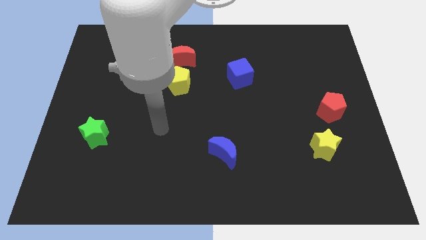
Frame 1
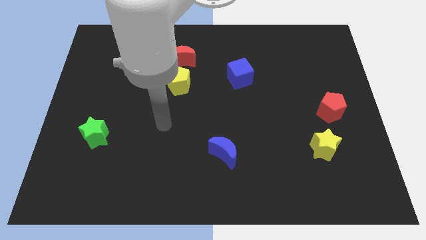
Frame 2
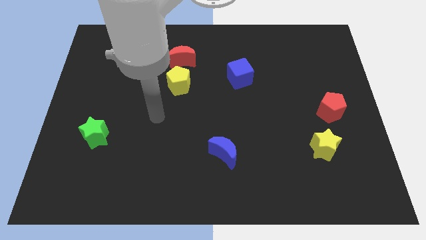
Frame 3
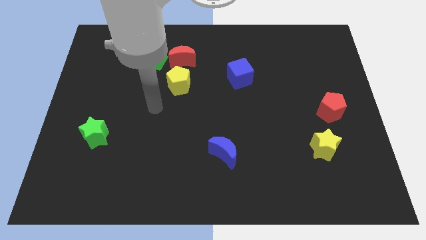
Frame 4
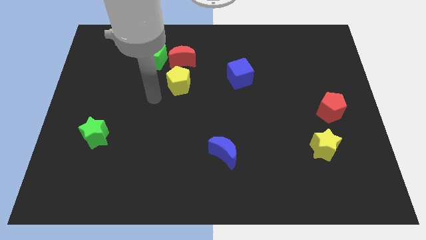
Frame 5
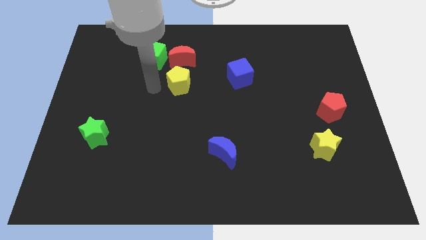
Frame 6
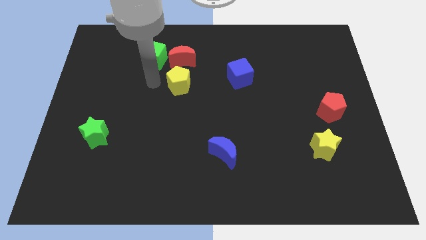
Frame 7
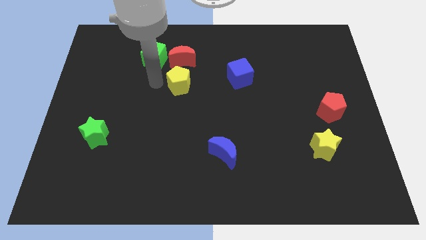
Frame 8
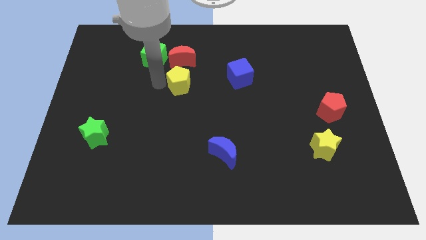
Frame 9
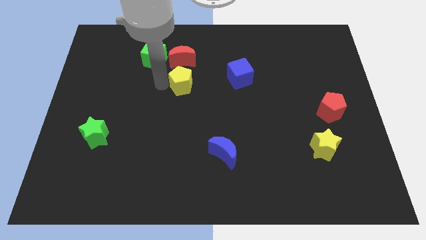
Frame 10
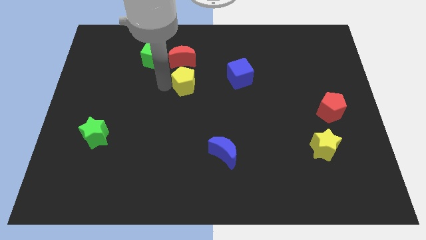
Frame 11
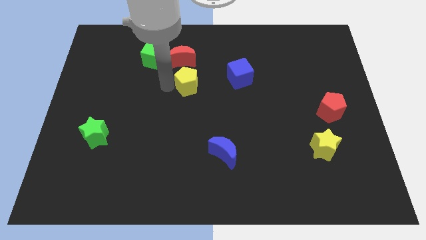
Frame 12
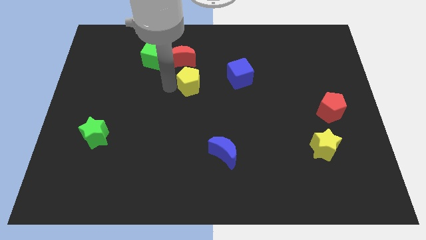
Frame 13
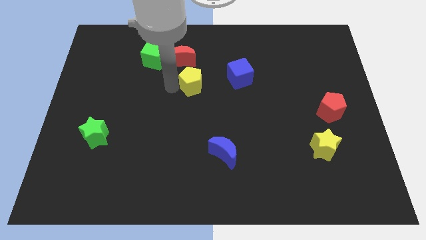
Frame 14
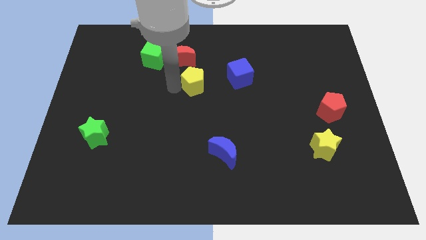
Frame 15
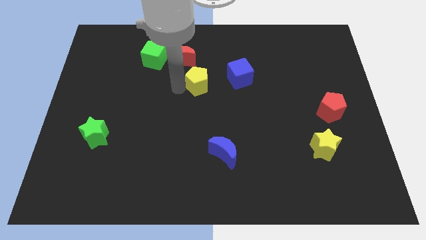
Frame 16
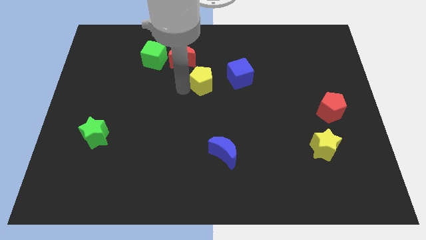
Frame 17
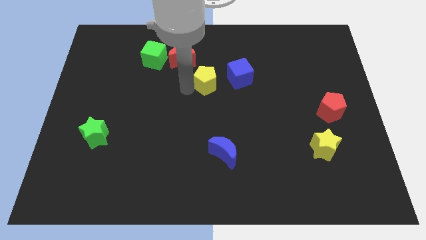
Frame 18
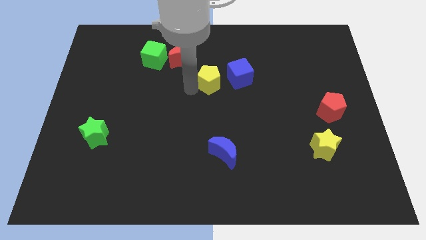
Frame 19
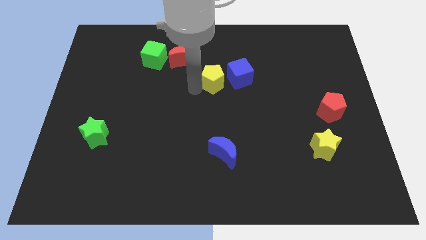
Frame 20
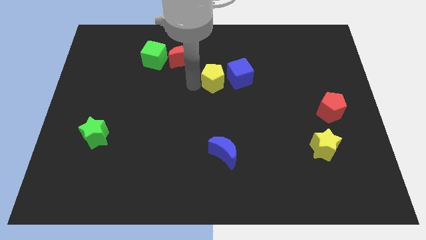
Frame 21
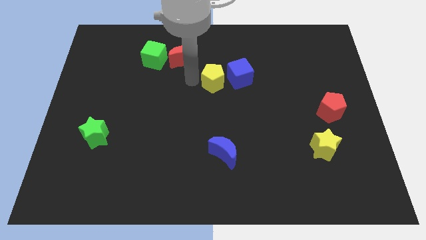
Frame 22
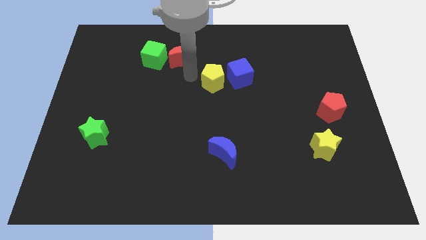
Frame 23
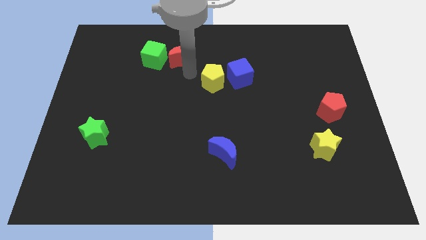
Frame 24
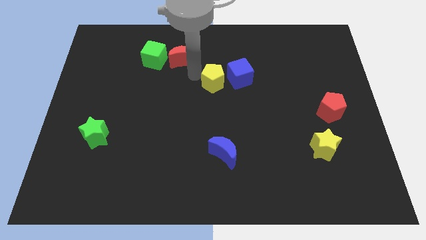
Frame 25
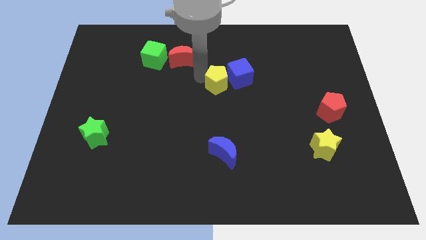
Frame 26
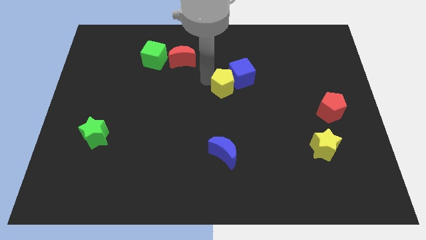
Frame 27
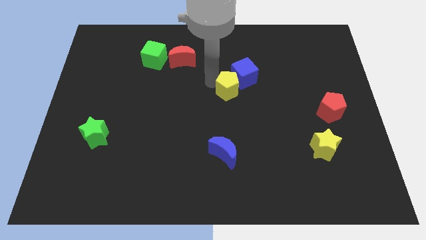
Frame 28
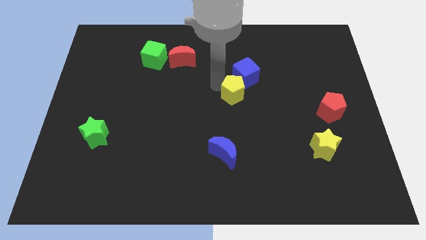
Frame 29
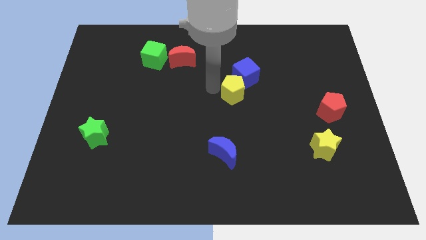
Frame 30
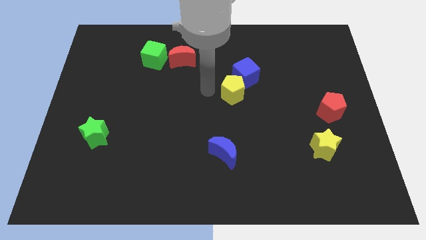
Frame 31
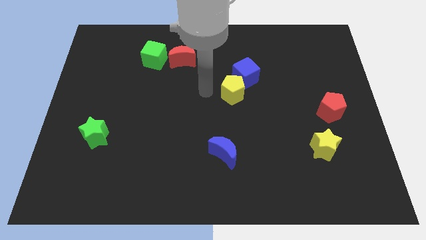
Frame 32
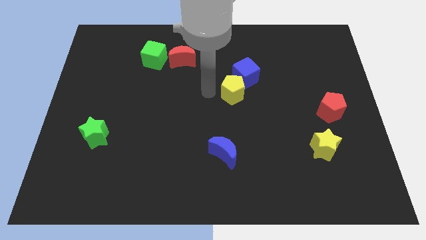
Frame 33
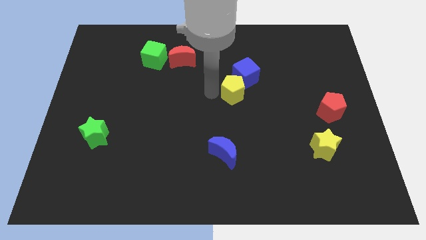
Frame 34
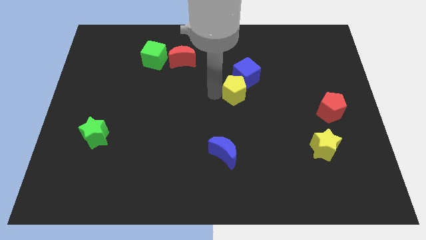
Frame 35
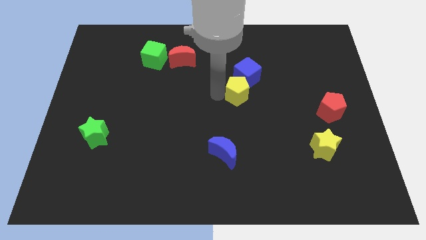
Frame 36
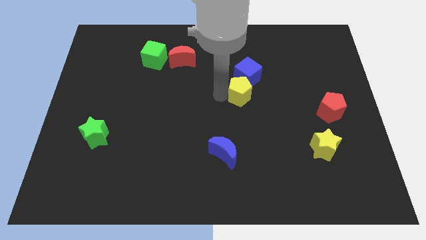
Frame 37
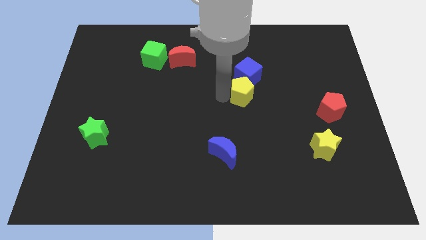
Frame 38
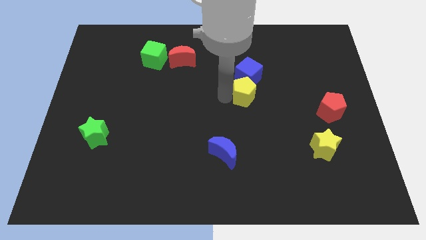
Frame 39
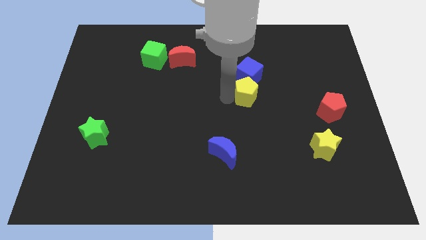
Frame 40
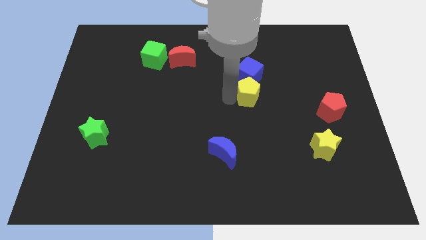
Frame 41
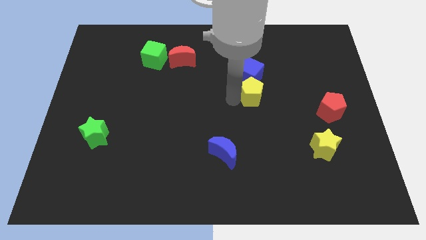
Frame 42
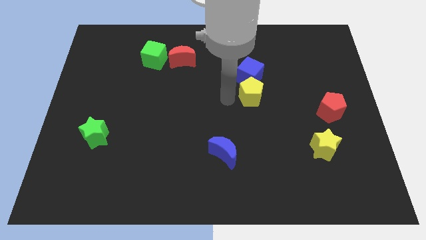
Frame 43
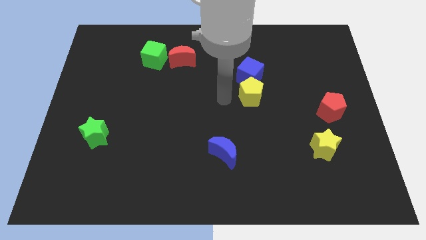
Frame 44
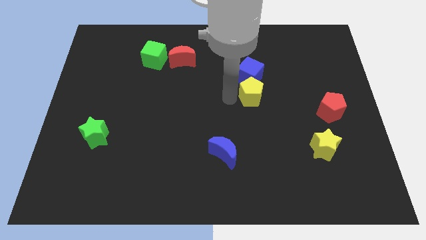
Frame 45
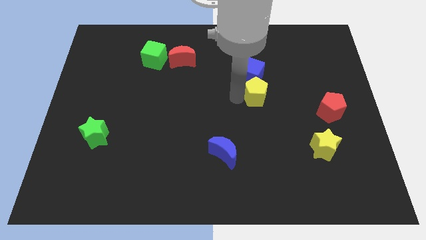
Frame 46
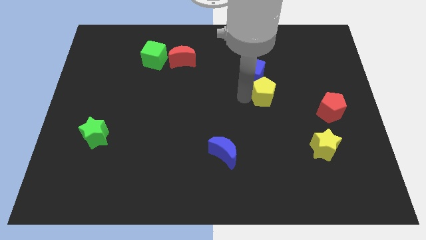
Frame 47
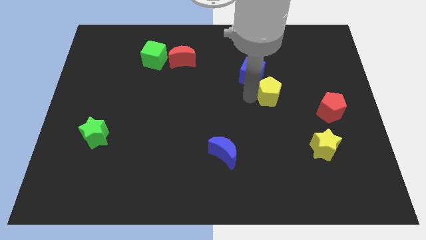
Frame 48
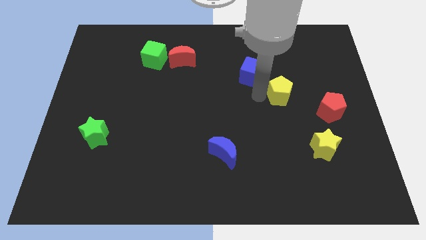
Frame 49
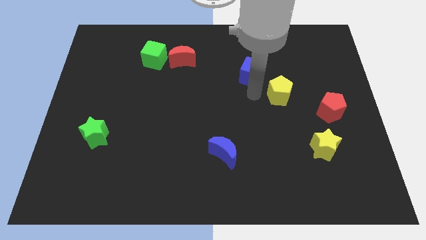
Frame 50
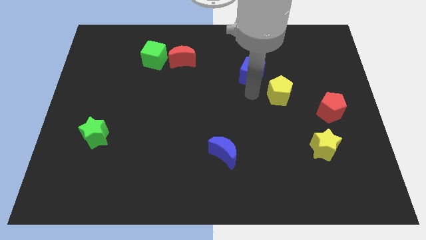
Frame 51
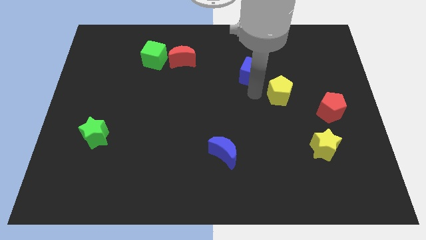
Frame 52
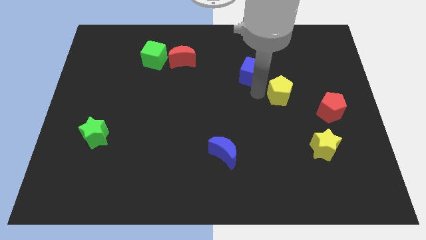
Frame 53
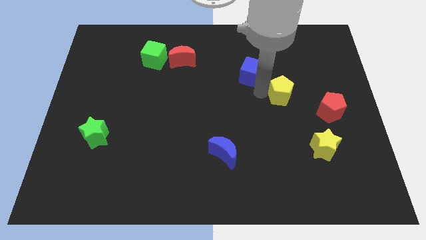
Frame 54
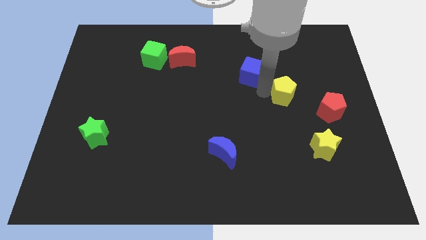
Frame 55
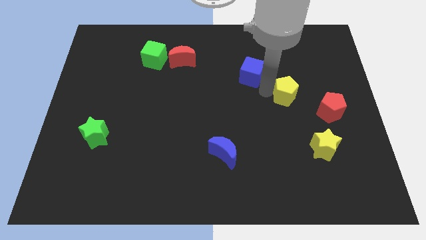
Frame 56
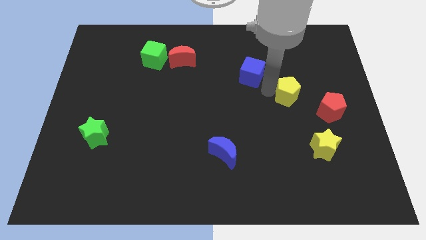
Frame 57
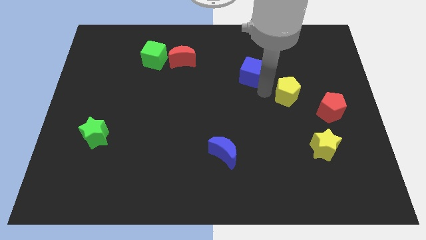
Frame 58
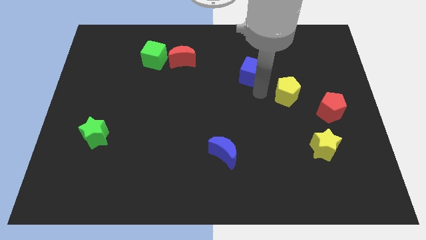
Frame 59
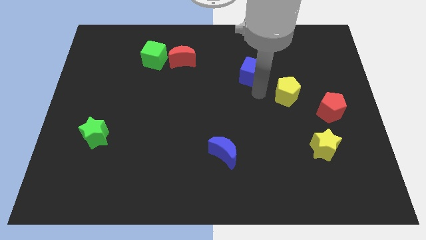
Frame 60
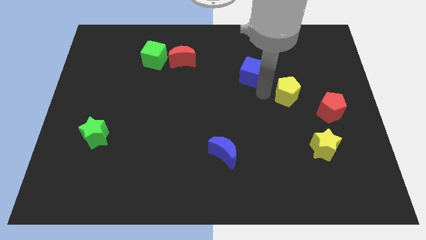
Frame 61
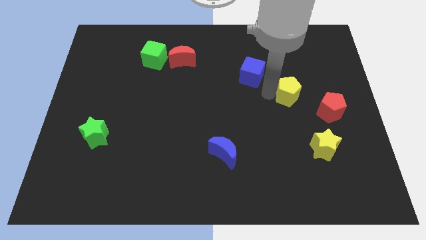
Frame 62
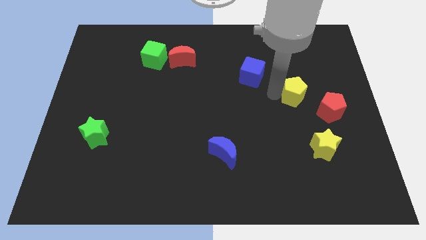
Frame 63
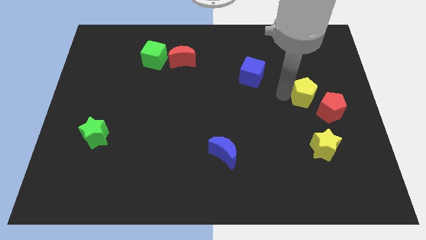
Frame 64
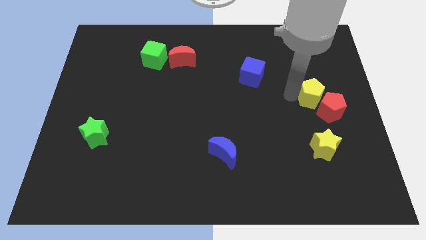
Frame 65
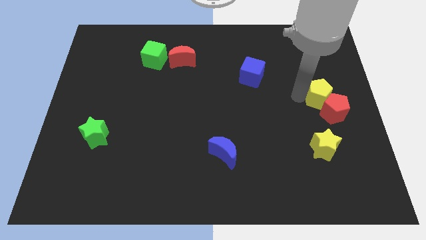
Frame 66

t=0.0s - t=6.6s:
push the yellow pentagon to the right side of the board
